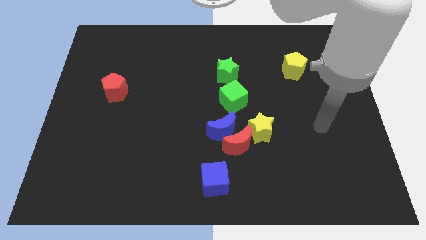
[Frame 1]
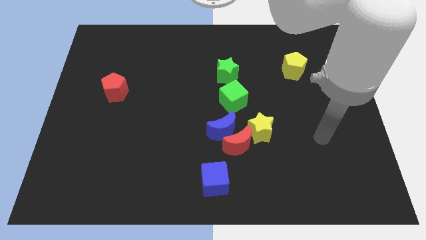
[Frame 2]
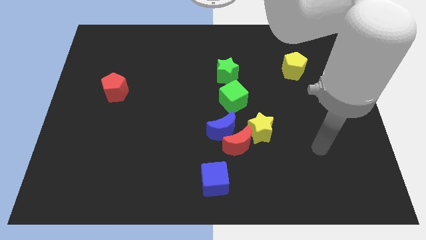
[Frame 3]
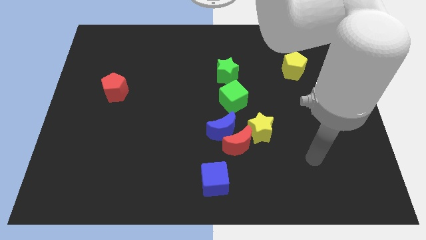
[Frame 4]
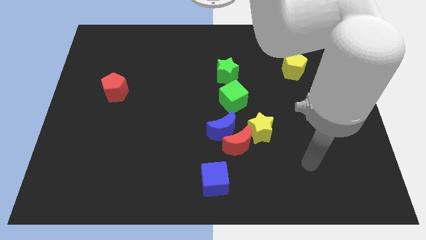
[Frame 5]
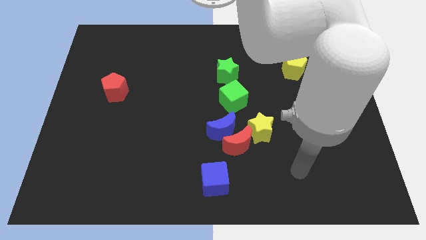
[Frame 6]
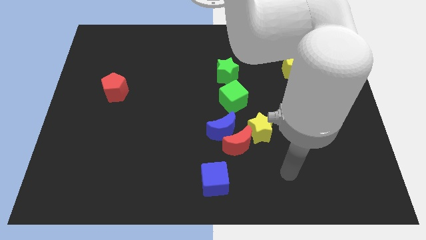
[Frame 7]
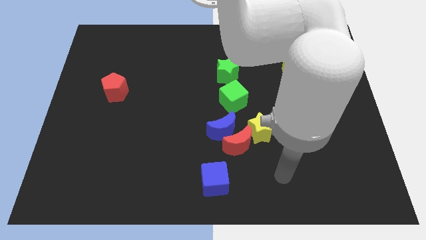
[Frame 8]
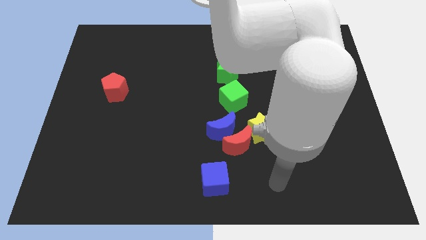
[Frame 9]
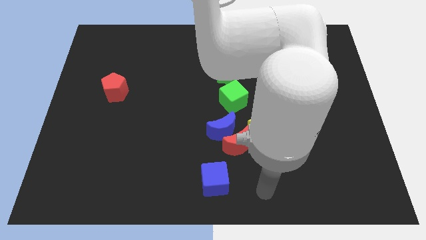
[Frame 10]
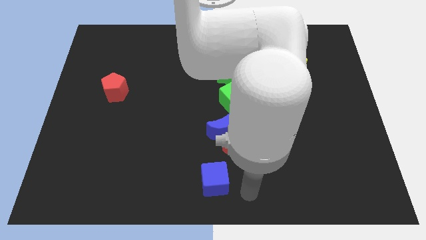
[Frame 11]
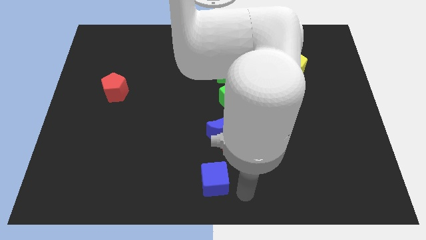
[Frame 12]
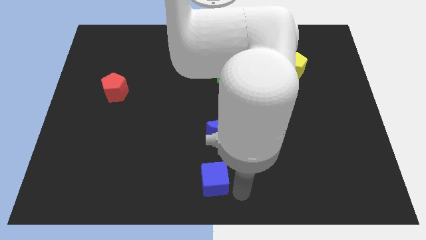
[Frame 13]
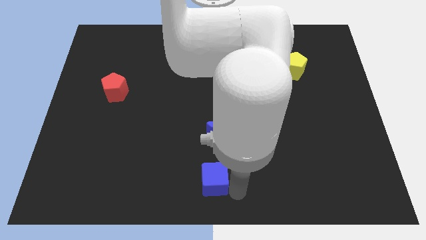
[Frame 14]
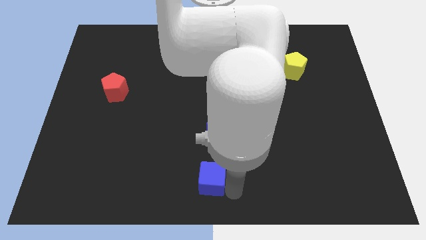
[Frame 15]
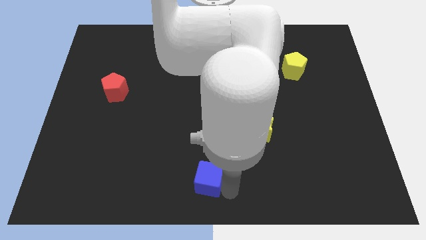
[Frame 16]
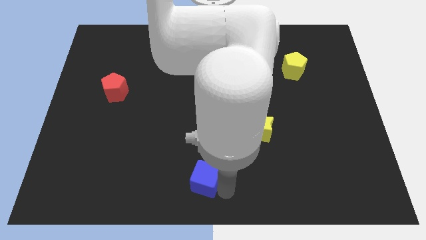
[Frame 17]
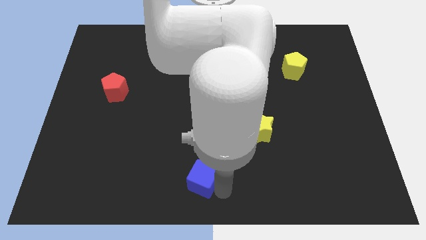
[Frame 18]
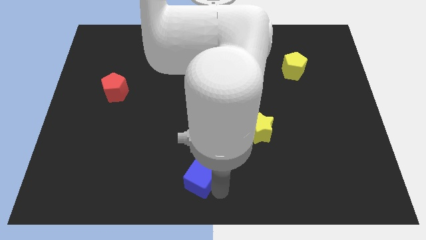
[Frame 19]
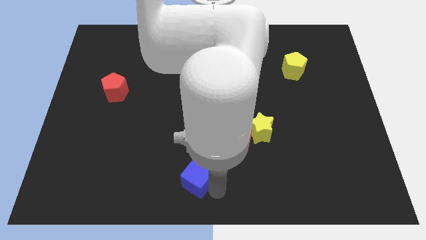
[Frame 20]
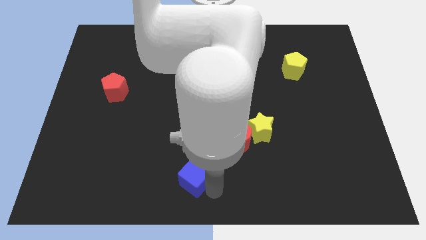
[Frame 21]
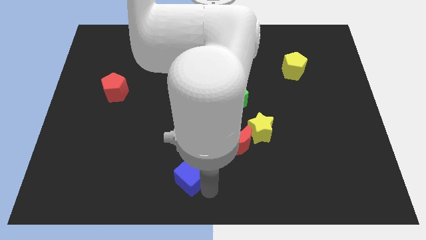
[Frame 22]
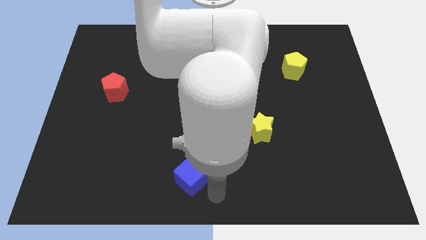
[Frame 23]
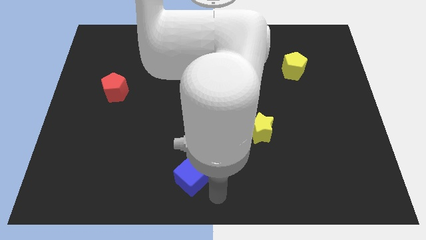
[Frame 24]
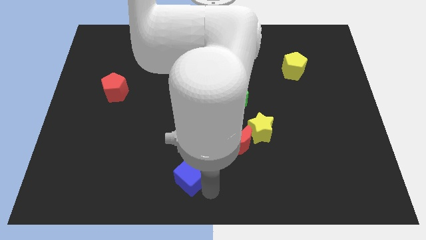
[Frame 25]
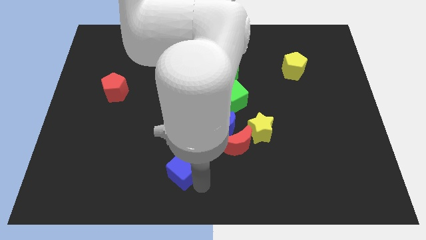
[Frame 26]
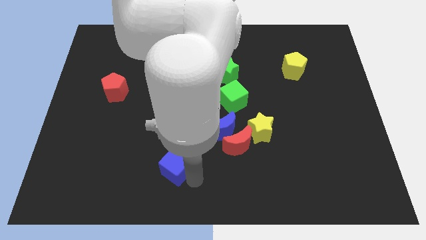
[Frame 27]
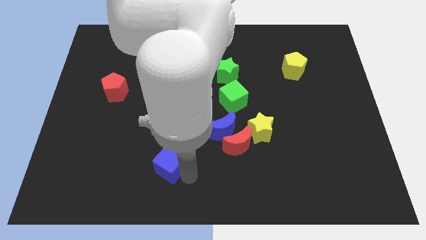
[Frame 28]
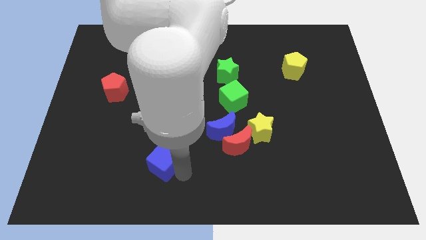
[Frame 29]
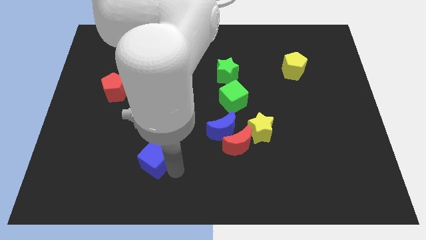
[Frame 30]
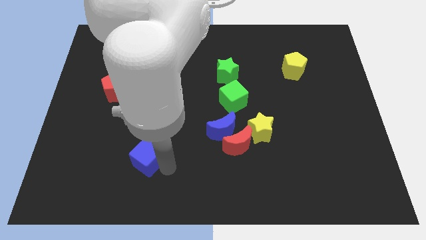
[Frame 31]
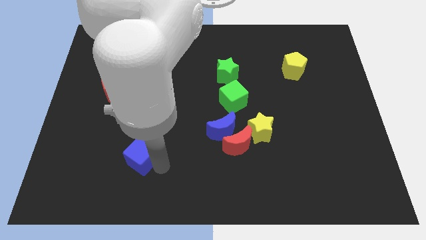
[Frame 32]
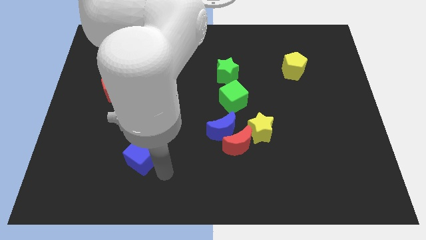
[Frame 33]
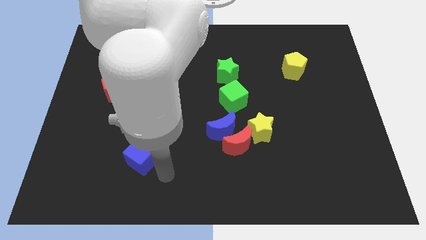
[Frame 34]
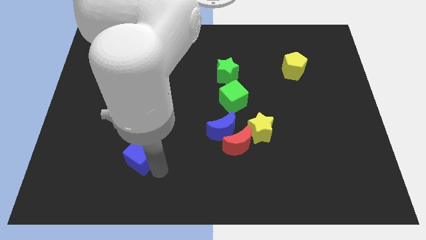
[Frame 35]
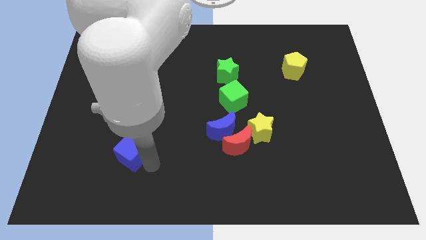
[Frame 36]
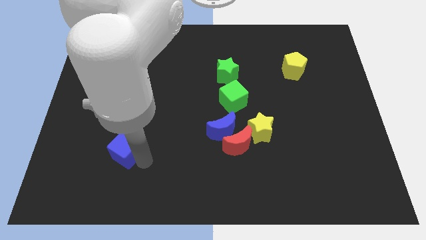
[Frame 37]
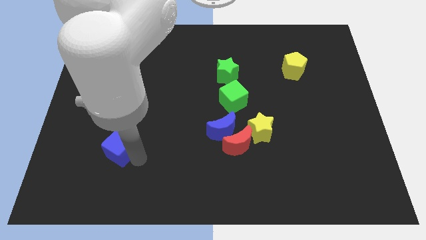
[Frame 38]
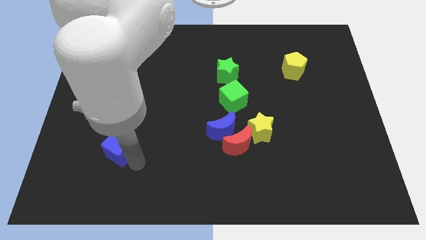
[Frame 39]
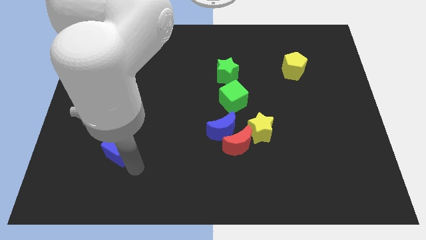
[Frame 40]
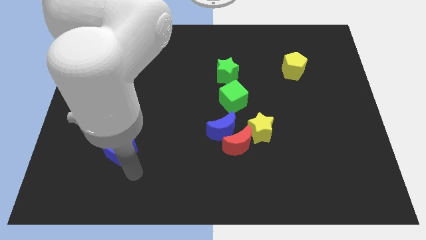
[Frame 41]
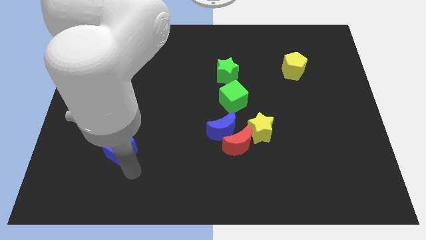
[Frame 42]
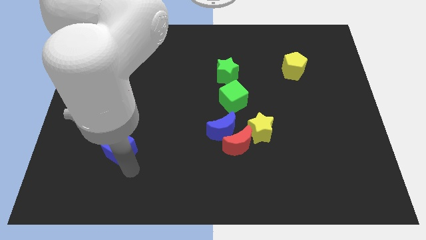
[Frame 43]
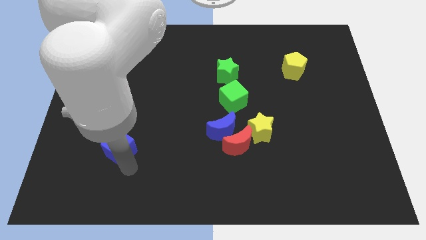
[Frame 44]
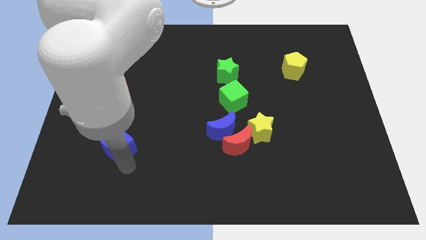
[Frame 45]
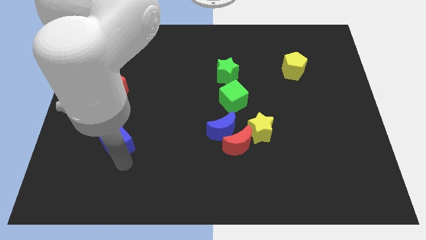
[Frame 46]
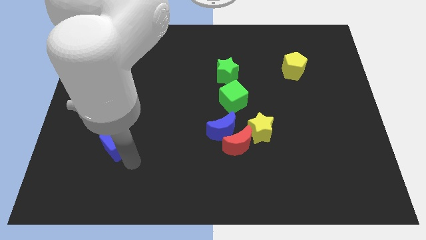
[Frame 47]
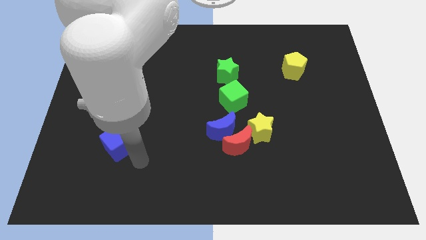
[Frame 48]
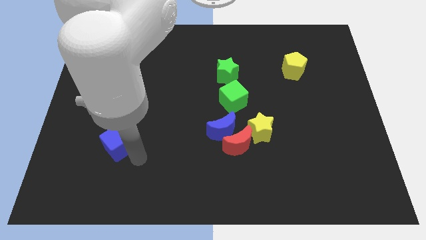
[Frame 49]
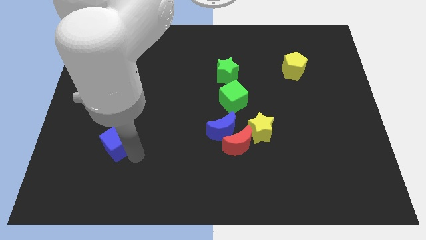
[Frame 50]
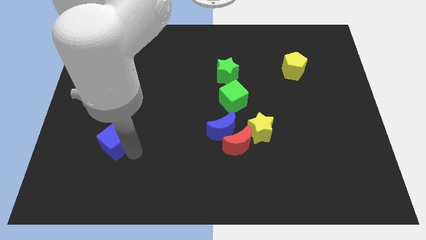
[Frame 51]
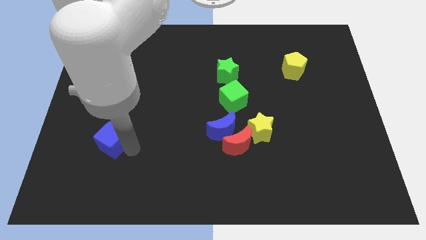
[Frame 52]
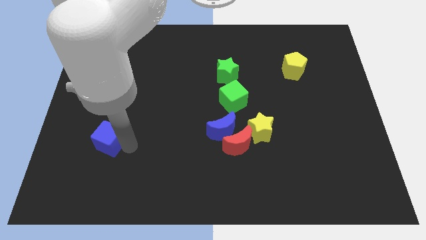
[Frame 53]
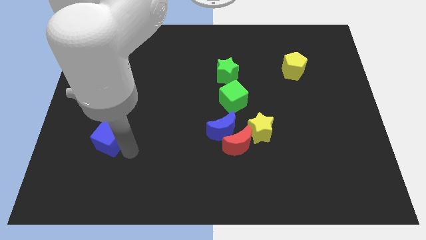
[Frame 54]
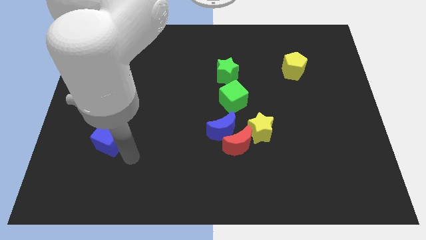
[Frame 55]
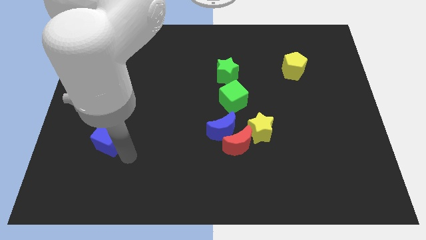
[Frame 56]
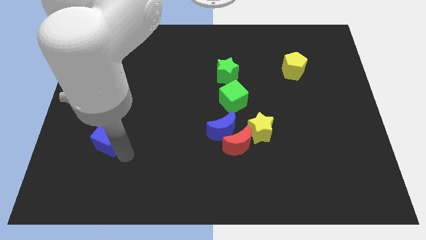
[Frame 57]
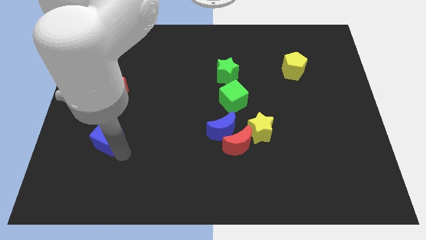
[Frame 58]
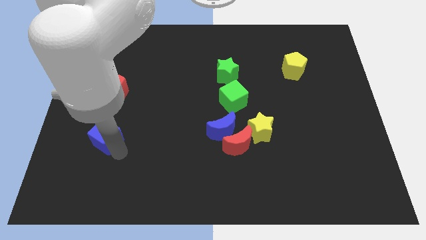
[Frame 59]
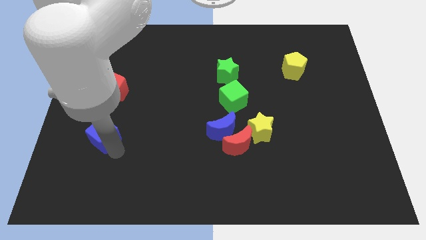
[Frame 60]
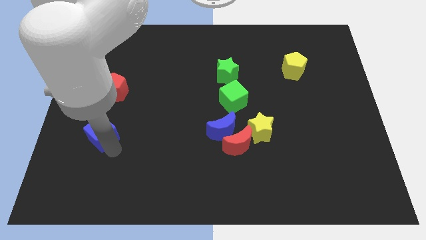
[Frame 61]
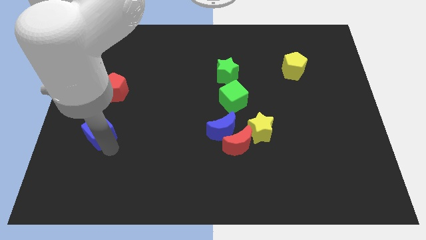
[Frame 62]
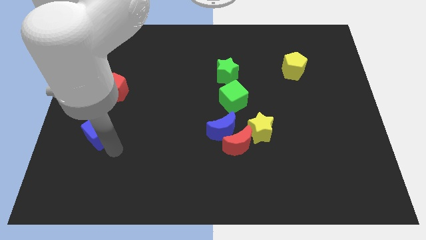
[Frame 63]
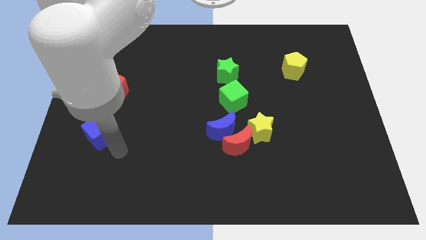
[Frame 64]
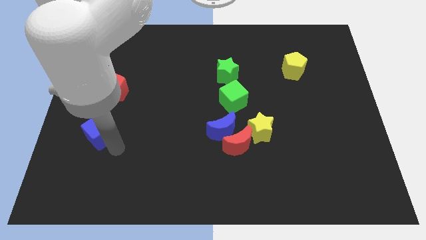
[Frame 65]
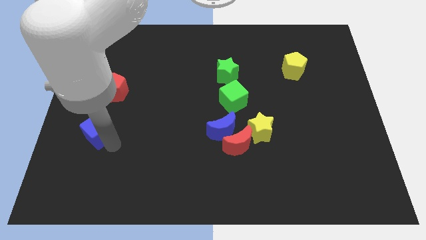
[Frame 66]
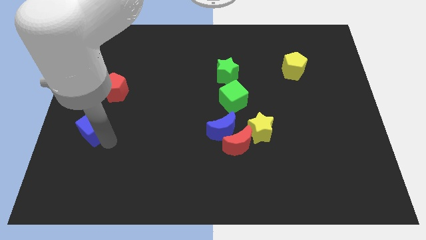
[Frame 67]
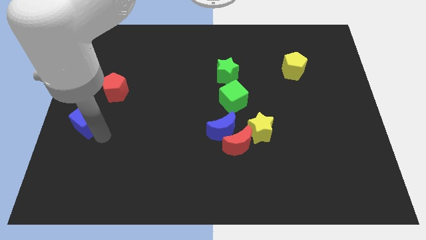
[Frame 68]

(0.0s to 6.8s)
push the blue cube to the center left
